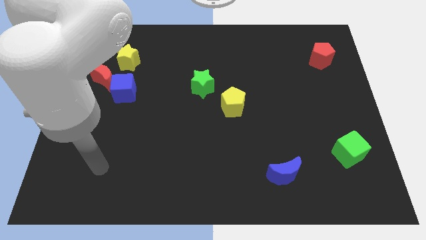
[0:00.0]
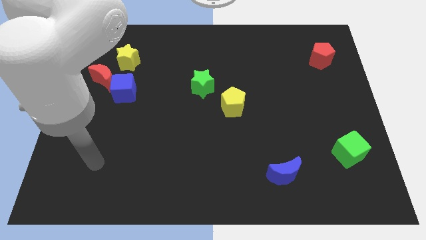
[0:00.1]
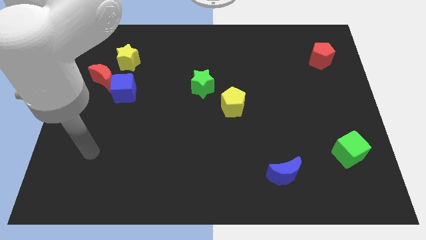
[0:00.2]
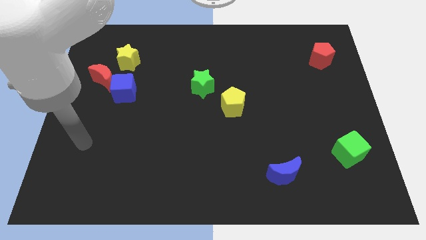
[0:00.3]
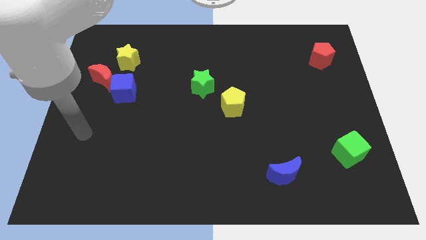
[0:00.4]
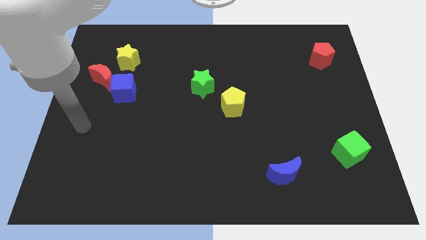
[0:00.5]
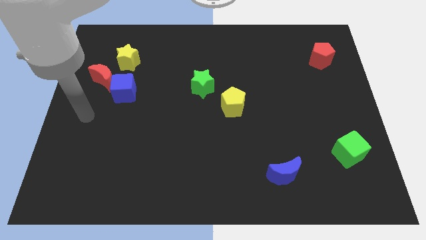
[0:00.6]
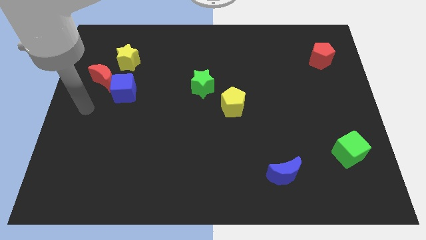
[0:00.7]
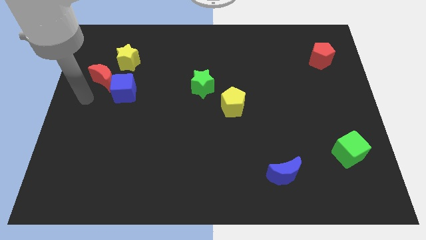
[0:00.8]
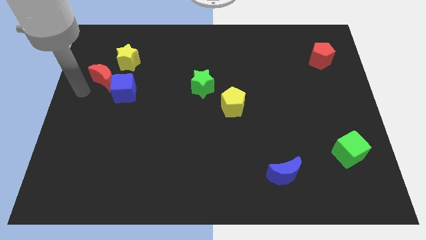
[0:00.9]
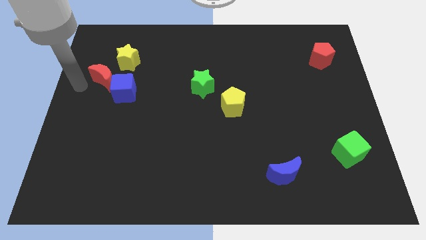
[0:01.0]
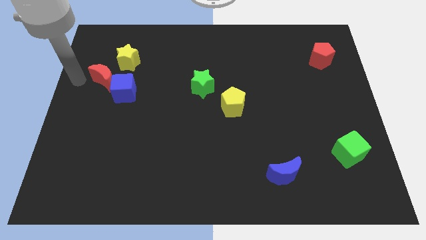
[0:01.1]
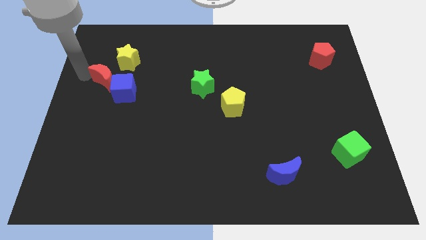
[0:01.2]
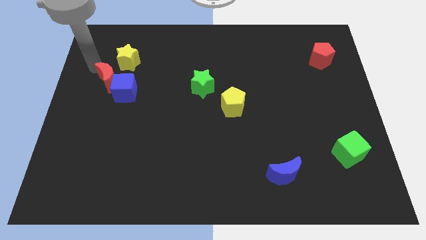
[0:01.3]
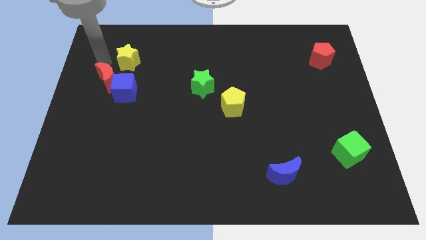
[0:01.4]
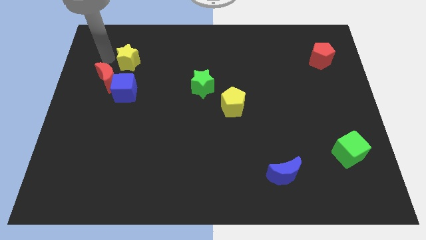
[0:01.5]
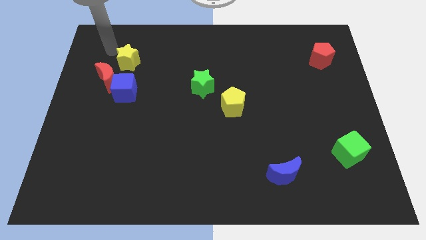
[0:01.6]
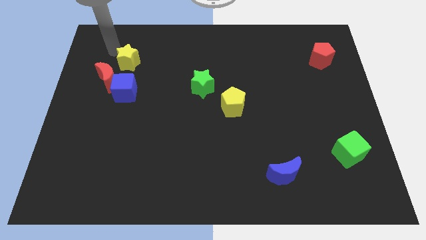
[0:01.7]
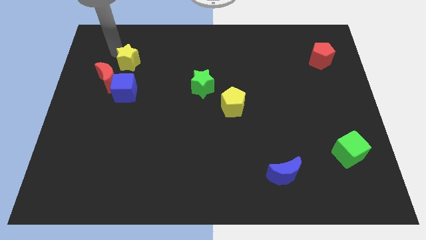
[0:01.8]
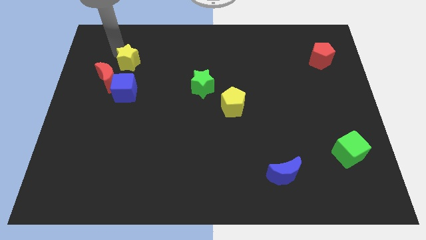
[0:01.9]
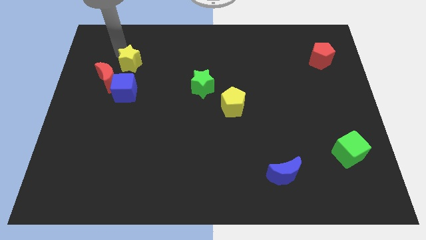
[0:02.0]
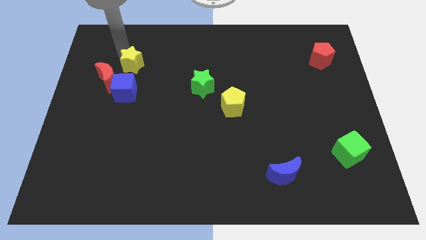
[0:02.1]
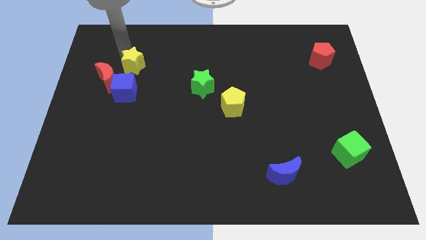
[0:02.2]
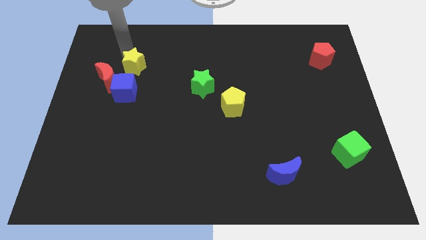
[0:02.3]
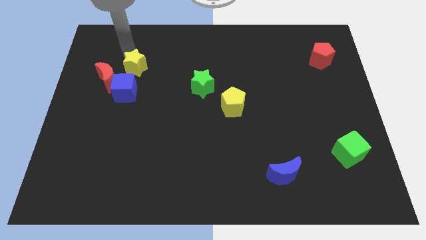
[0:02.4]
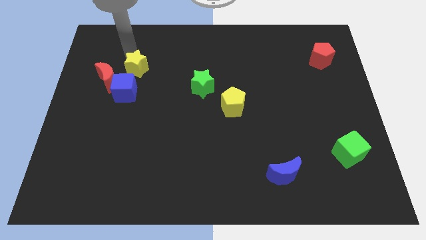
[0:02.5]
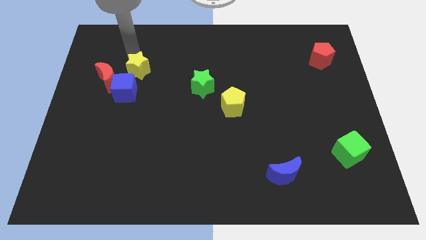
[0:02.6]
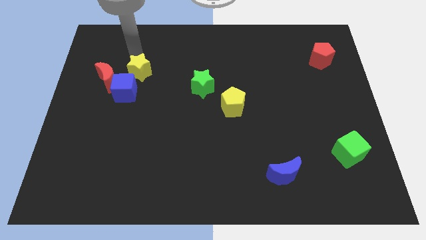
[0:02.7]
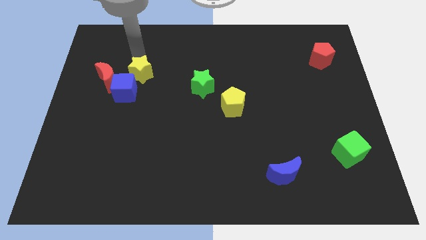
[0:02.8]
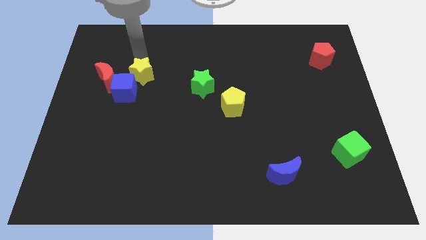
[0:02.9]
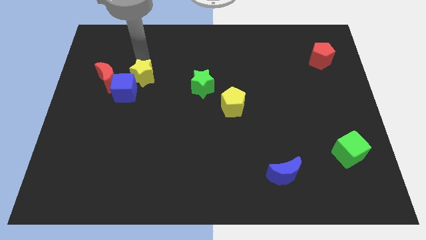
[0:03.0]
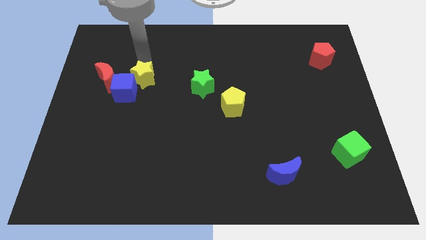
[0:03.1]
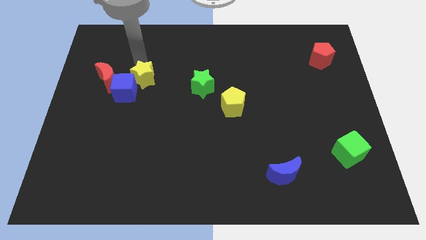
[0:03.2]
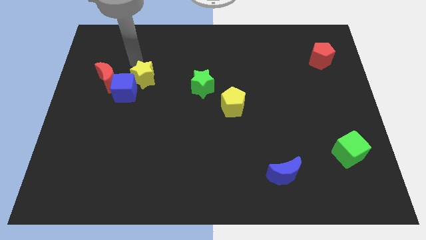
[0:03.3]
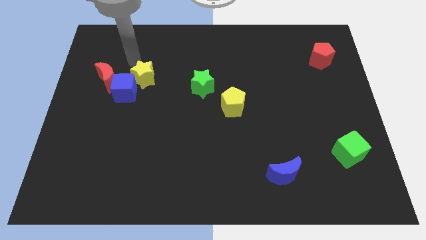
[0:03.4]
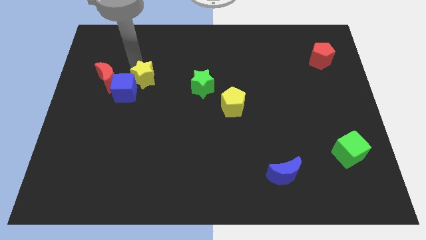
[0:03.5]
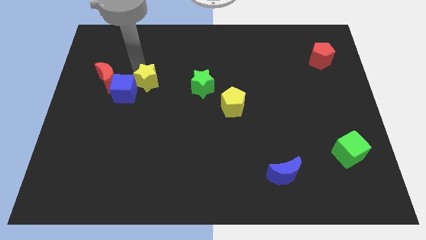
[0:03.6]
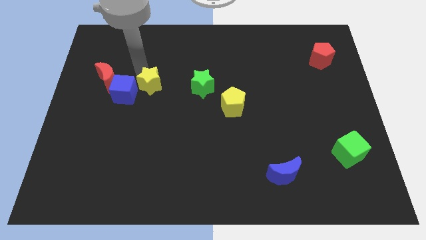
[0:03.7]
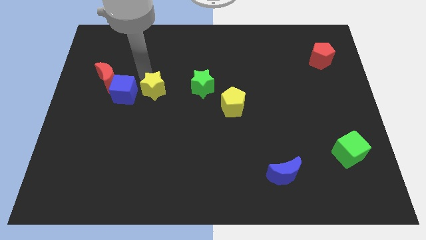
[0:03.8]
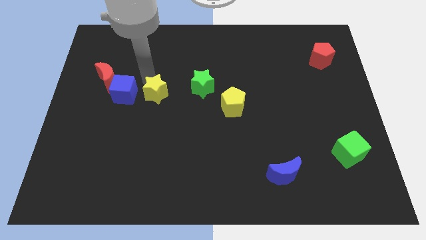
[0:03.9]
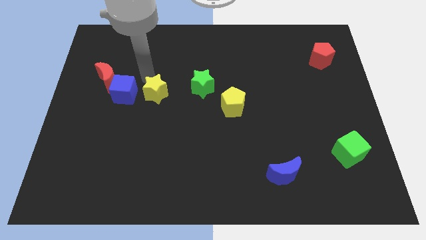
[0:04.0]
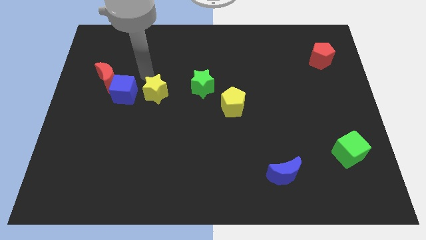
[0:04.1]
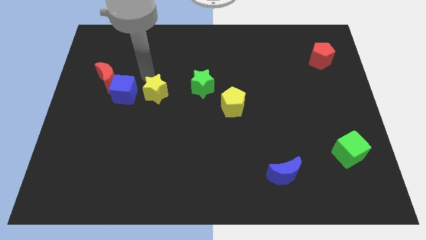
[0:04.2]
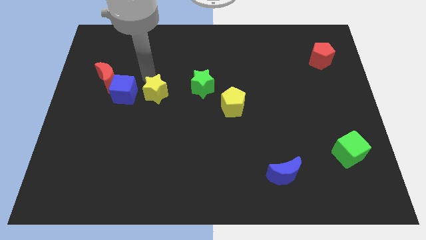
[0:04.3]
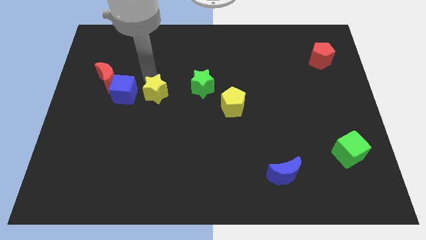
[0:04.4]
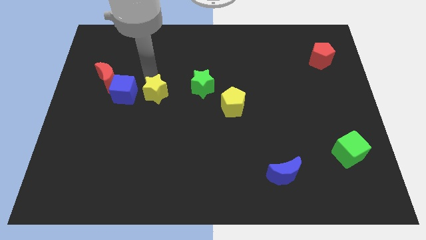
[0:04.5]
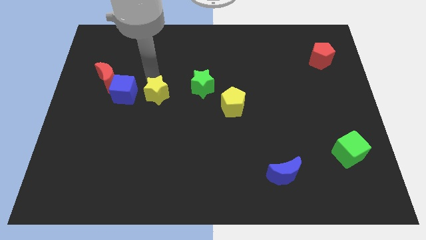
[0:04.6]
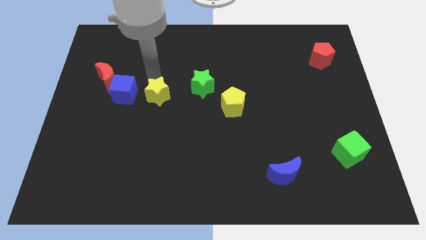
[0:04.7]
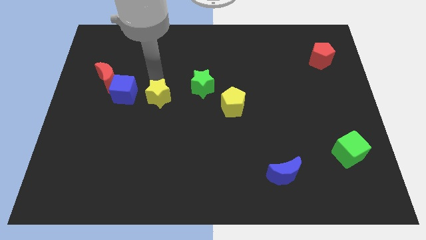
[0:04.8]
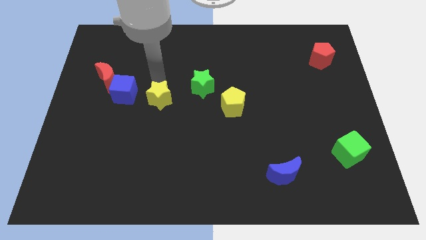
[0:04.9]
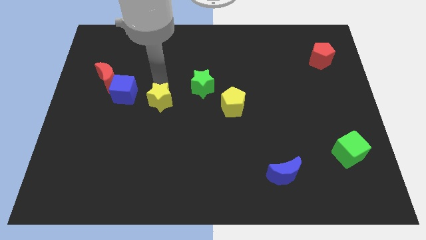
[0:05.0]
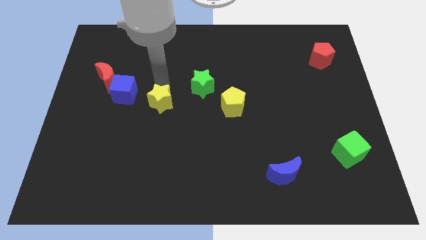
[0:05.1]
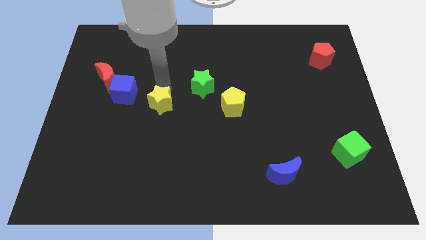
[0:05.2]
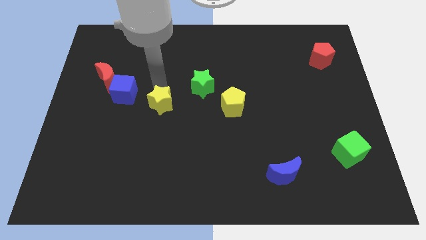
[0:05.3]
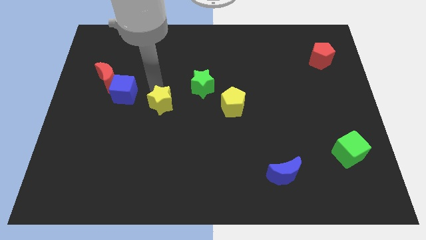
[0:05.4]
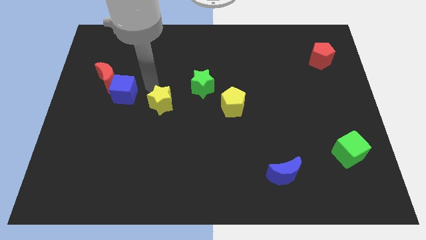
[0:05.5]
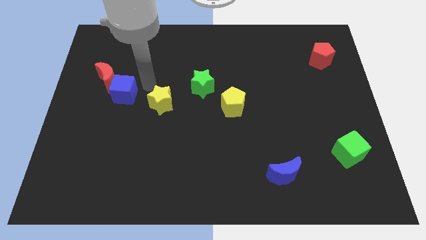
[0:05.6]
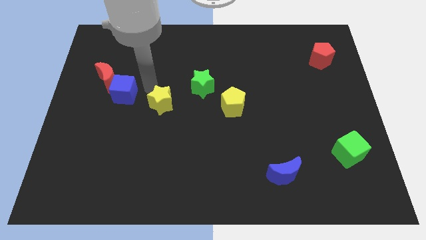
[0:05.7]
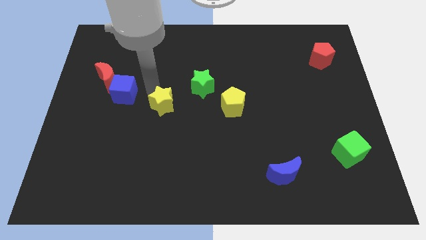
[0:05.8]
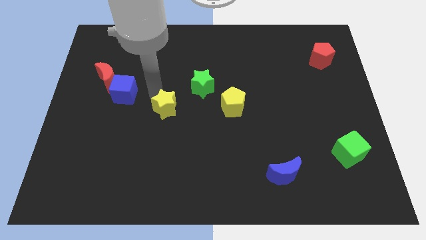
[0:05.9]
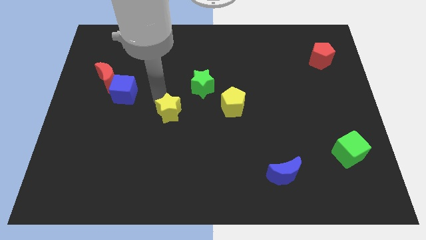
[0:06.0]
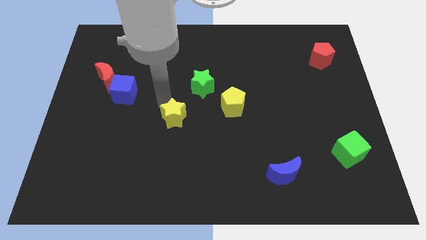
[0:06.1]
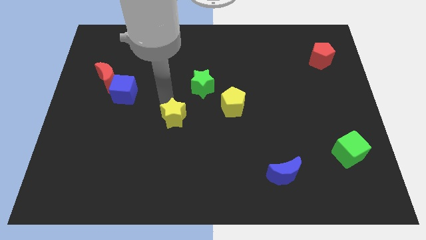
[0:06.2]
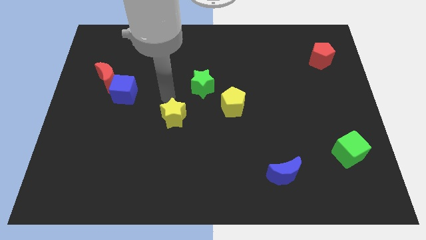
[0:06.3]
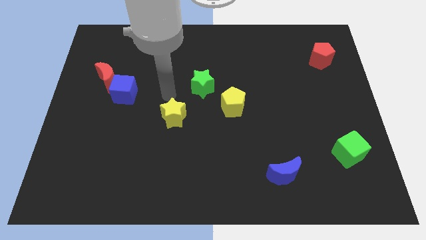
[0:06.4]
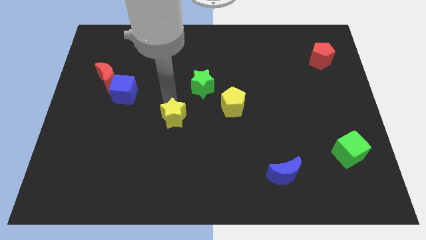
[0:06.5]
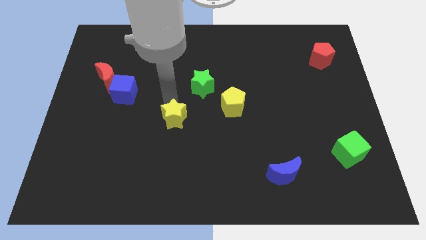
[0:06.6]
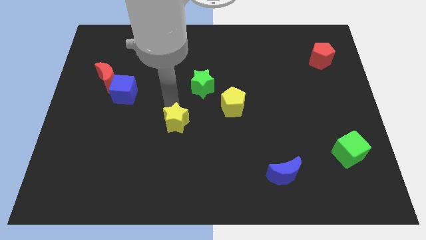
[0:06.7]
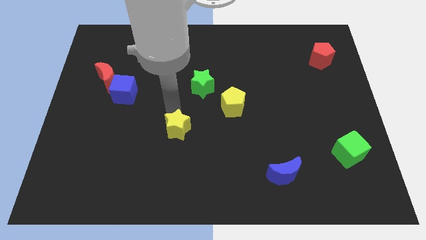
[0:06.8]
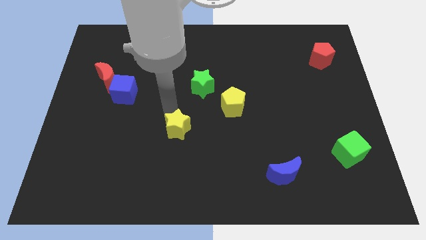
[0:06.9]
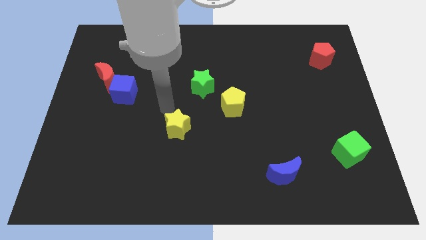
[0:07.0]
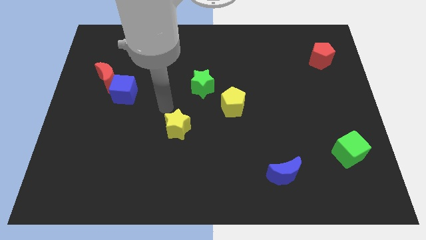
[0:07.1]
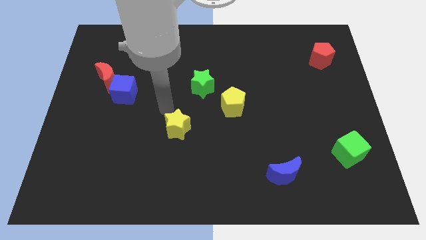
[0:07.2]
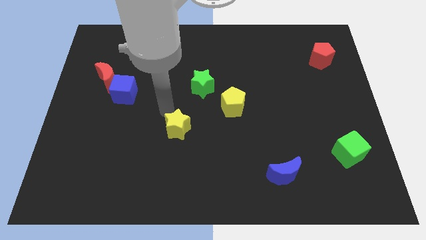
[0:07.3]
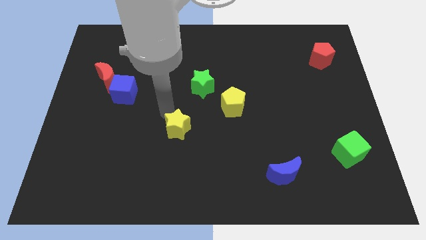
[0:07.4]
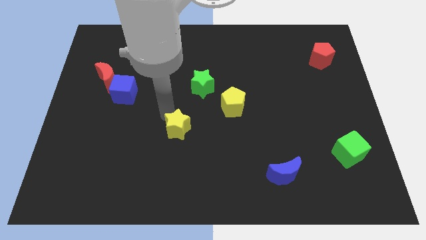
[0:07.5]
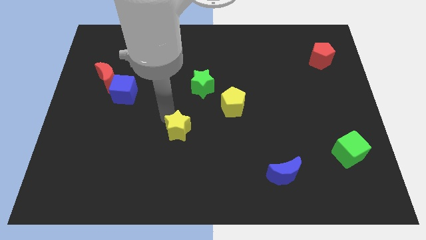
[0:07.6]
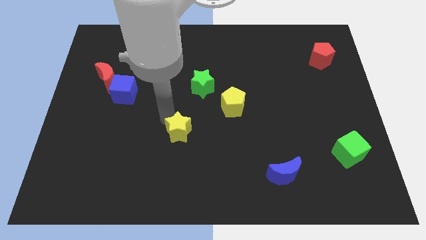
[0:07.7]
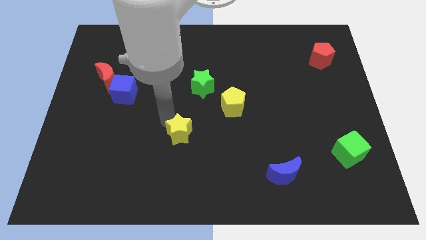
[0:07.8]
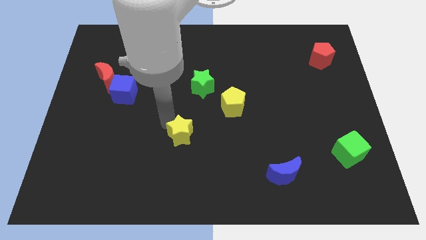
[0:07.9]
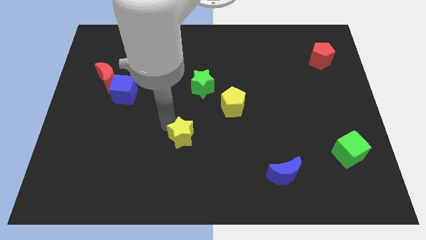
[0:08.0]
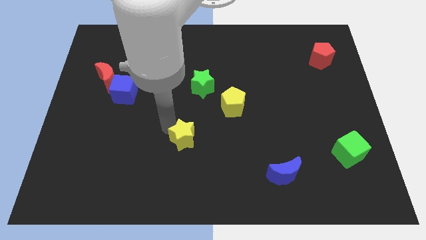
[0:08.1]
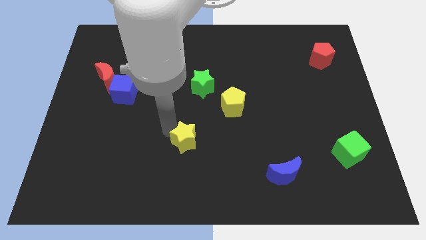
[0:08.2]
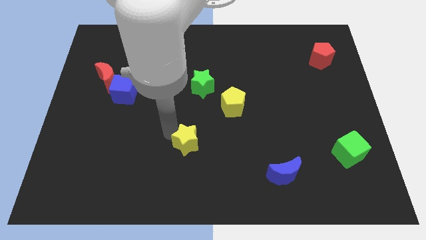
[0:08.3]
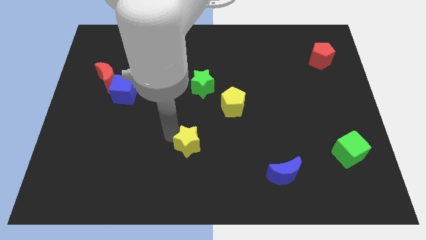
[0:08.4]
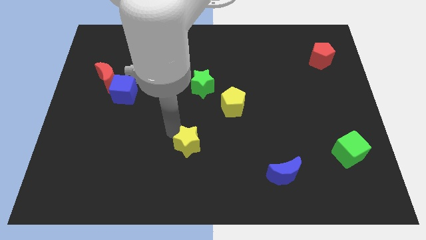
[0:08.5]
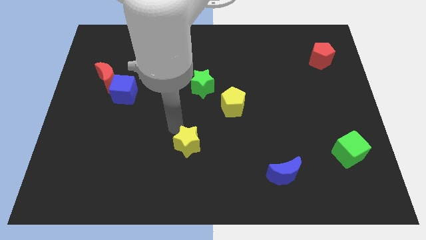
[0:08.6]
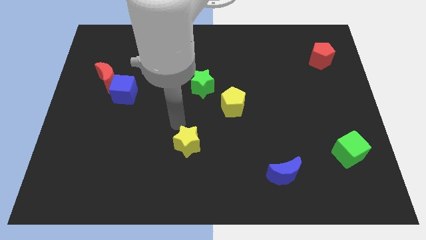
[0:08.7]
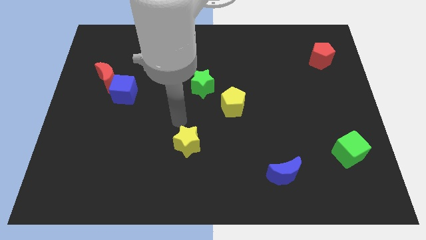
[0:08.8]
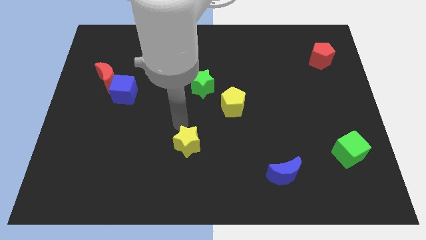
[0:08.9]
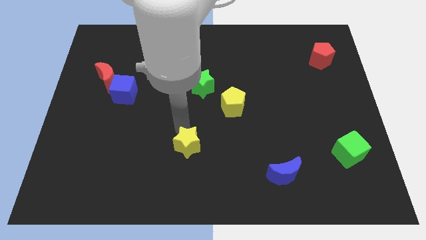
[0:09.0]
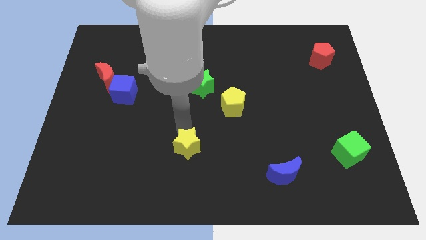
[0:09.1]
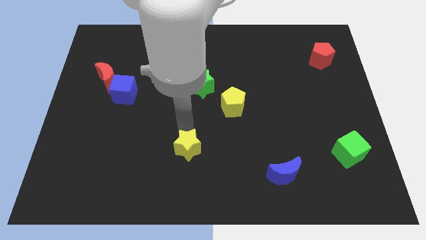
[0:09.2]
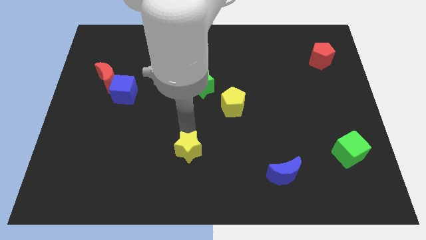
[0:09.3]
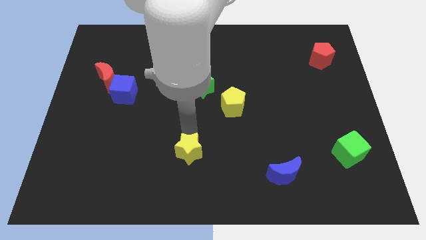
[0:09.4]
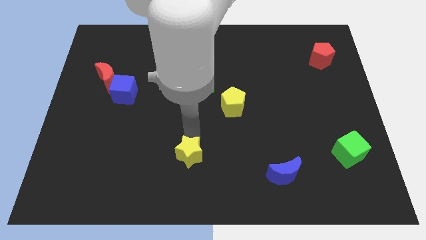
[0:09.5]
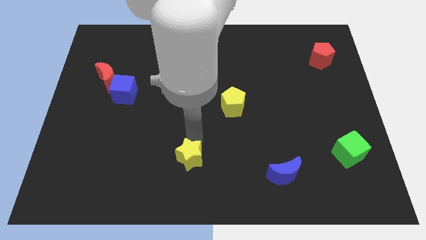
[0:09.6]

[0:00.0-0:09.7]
slide the yellow star to the bottom side
